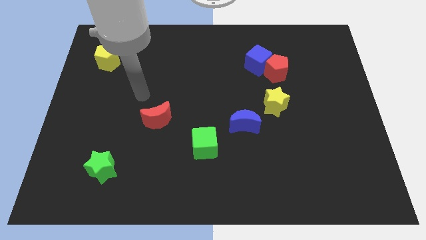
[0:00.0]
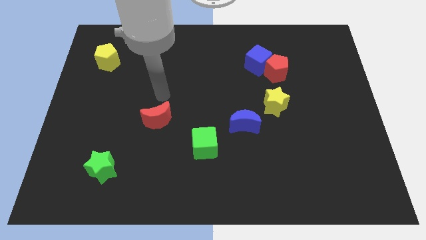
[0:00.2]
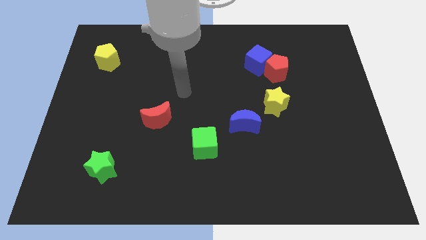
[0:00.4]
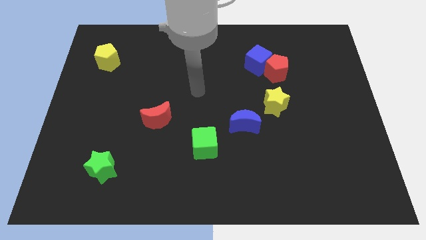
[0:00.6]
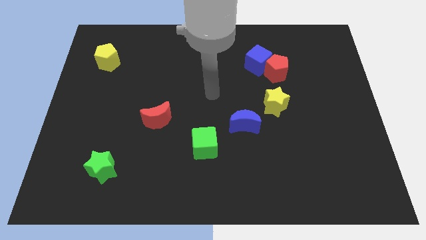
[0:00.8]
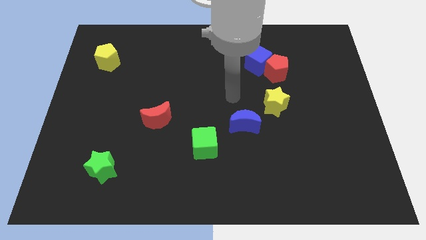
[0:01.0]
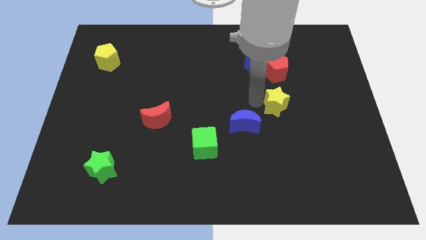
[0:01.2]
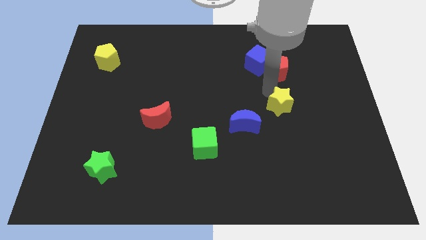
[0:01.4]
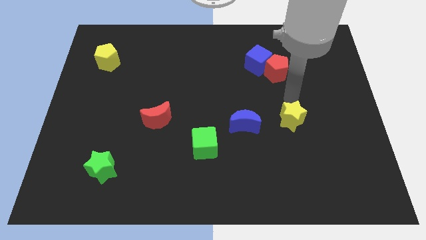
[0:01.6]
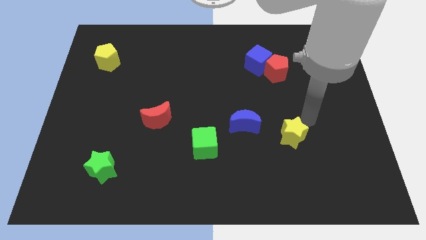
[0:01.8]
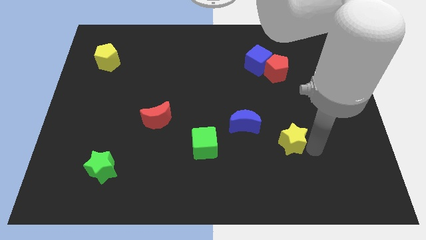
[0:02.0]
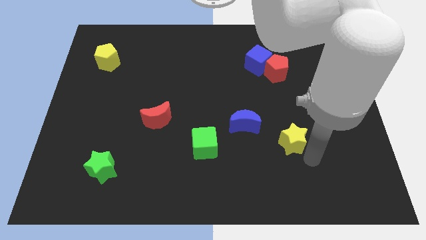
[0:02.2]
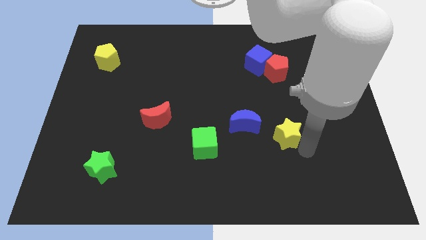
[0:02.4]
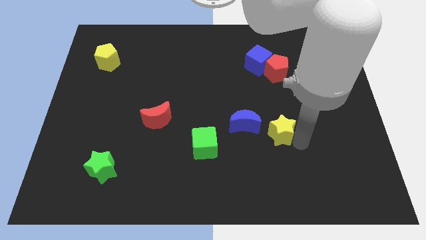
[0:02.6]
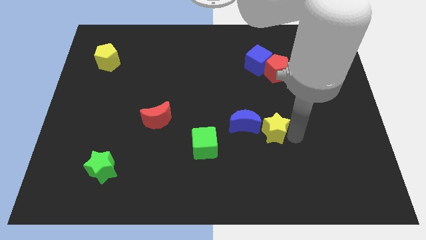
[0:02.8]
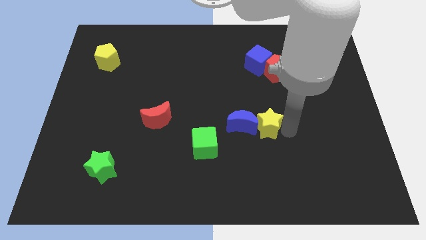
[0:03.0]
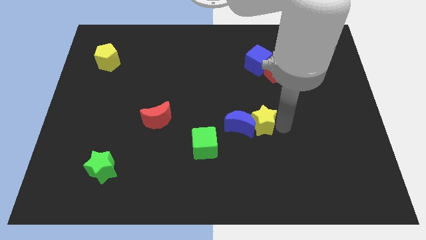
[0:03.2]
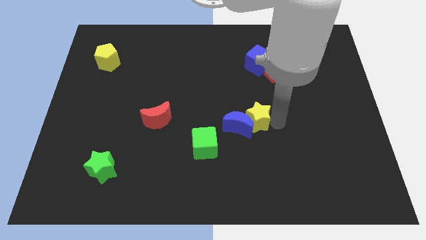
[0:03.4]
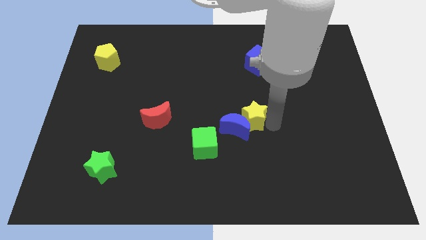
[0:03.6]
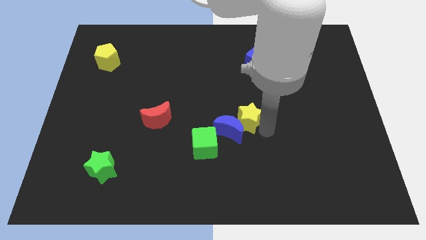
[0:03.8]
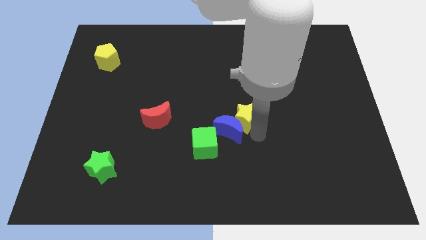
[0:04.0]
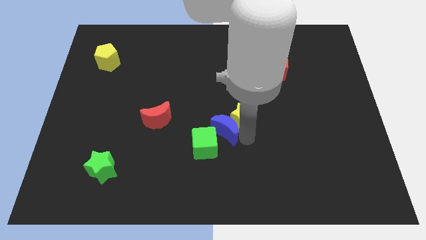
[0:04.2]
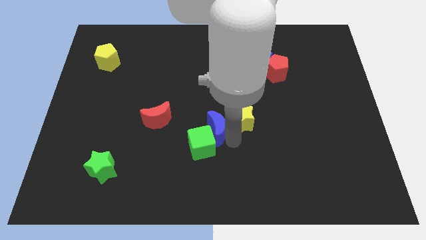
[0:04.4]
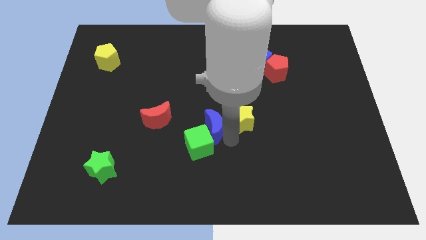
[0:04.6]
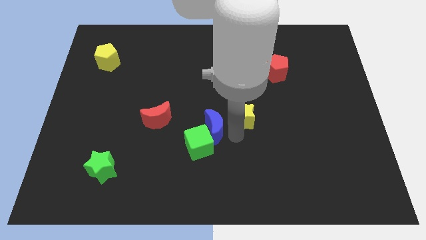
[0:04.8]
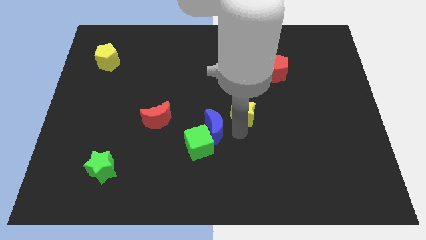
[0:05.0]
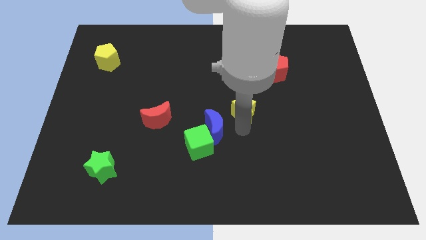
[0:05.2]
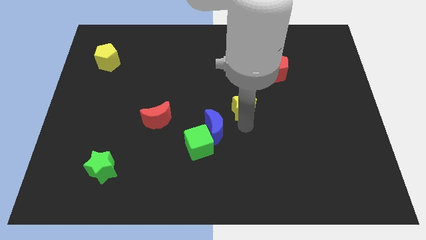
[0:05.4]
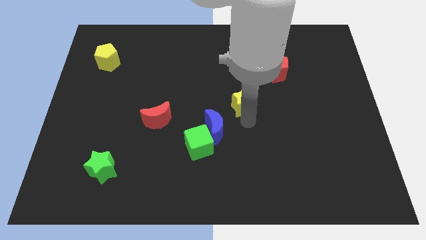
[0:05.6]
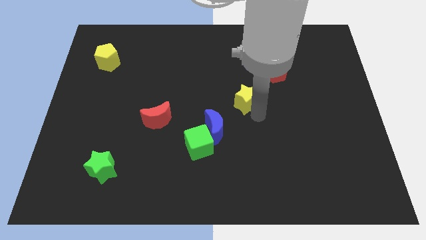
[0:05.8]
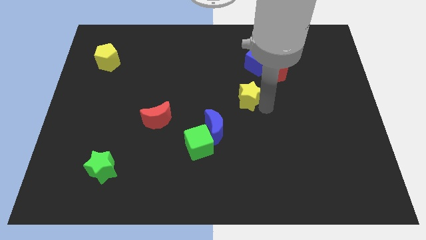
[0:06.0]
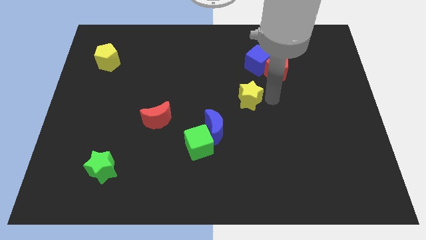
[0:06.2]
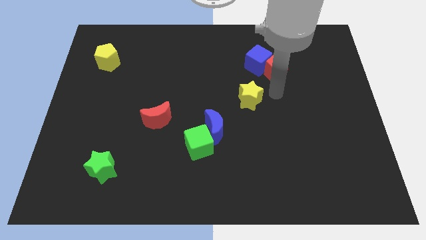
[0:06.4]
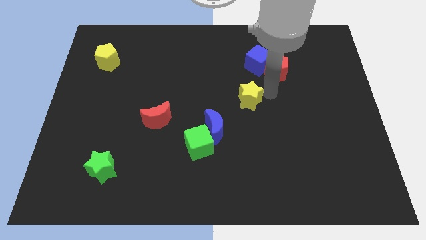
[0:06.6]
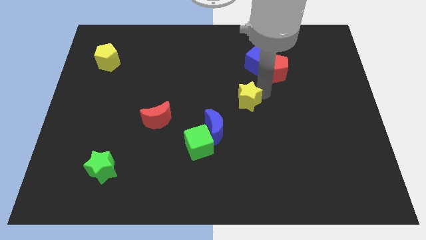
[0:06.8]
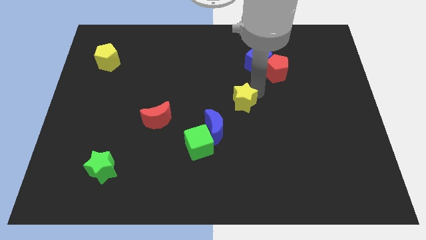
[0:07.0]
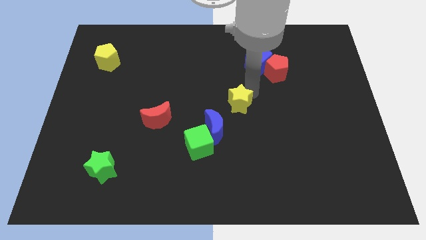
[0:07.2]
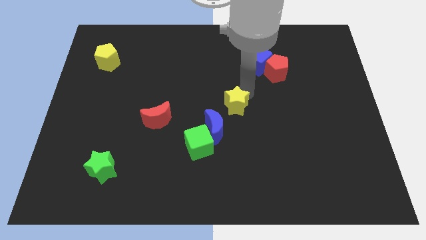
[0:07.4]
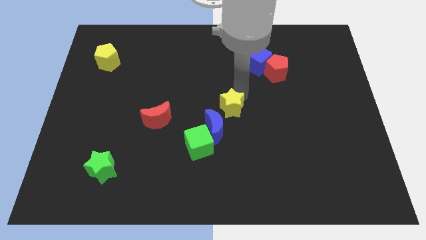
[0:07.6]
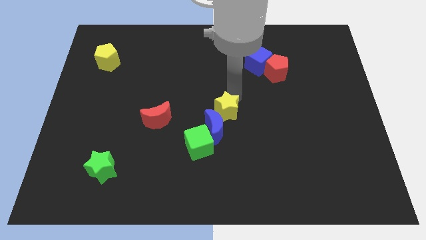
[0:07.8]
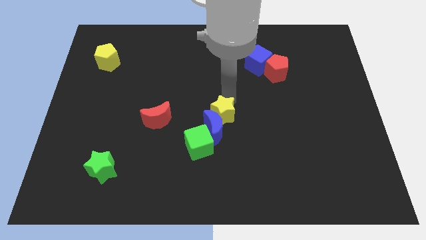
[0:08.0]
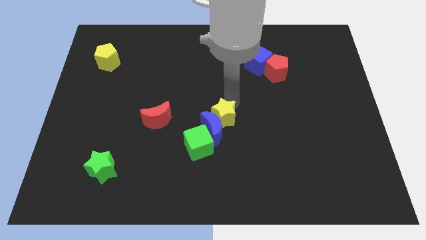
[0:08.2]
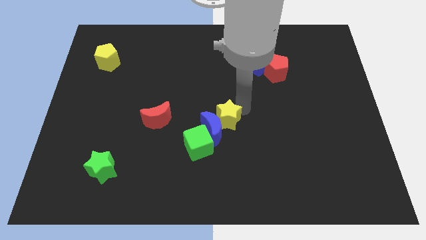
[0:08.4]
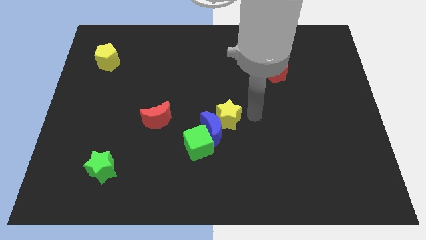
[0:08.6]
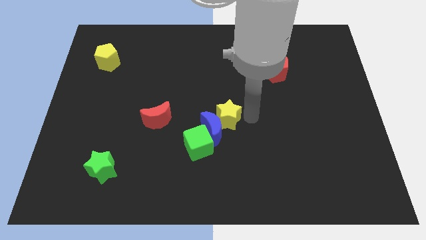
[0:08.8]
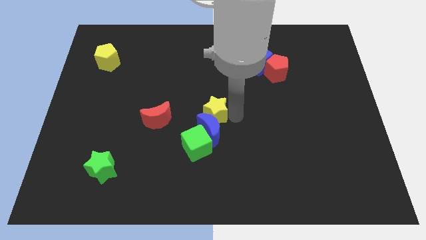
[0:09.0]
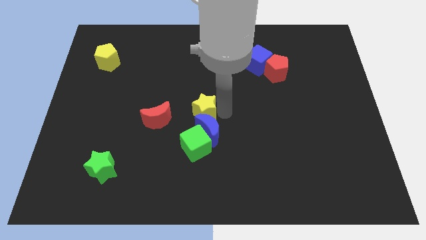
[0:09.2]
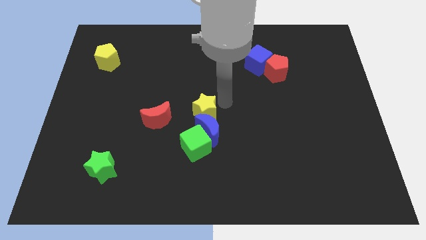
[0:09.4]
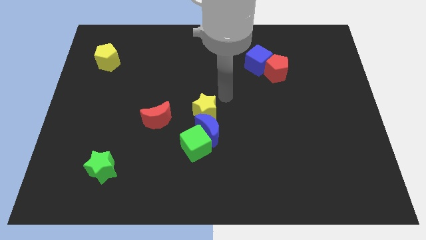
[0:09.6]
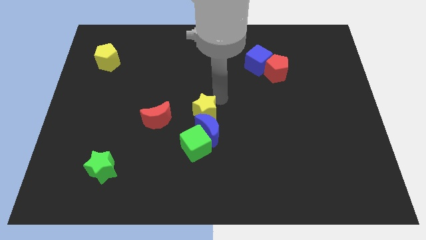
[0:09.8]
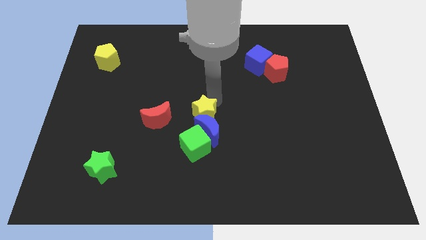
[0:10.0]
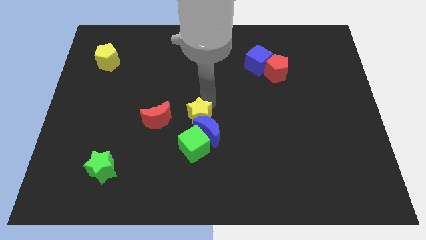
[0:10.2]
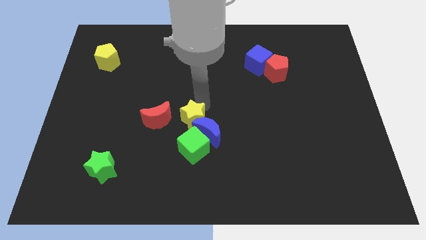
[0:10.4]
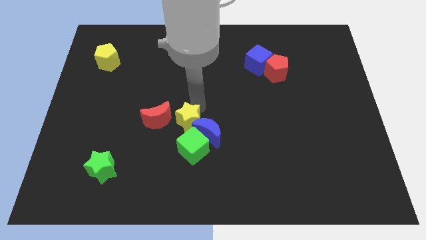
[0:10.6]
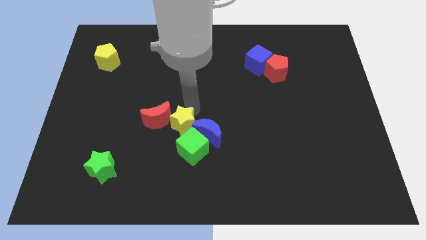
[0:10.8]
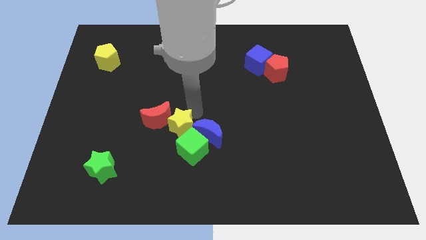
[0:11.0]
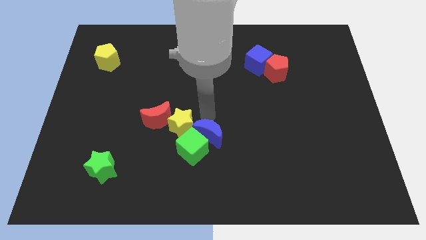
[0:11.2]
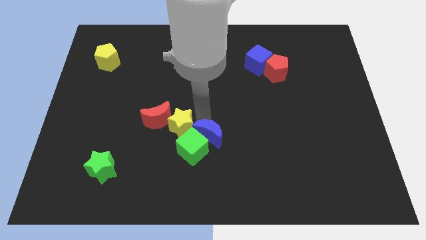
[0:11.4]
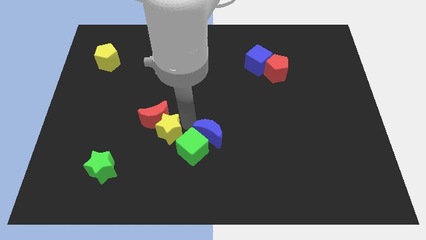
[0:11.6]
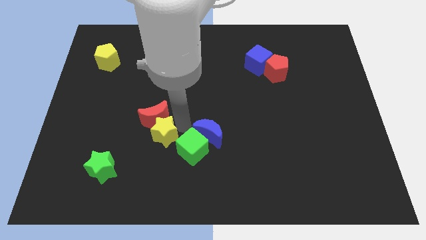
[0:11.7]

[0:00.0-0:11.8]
push the yellow star to the bottom left of the red moon
